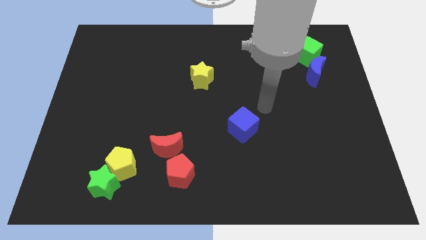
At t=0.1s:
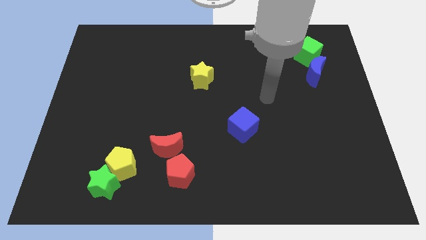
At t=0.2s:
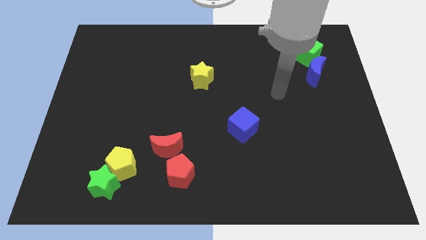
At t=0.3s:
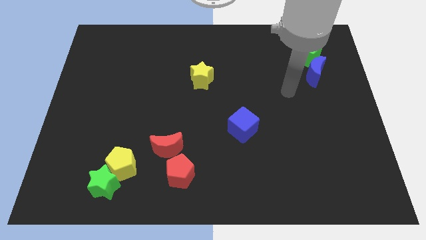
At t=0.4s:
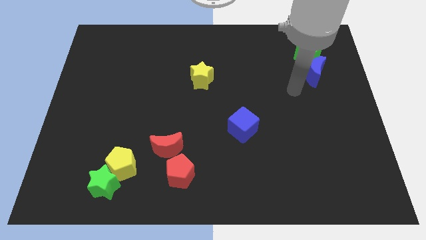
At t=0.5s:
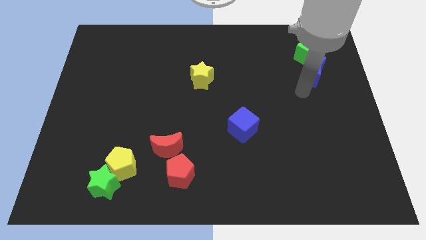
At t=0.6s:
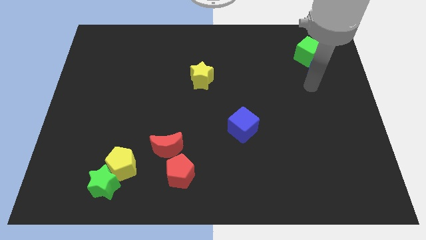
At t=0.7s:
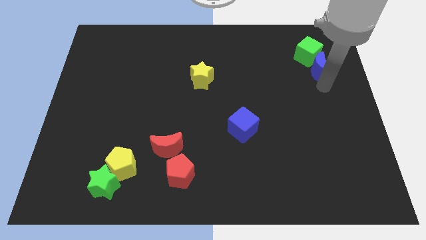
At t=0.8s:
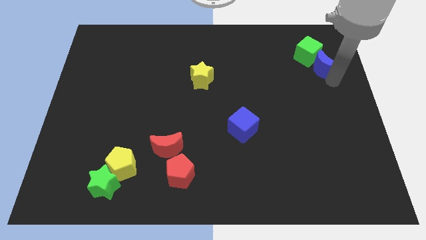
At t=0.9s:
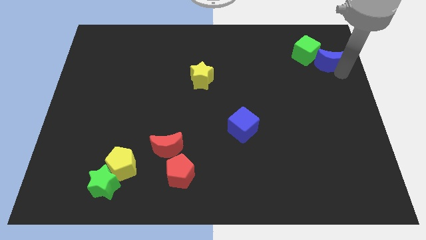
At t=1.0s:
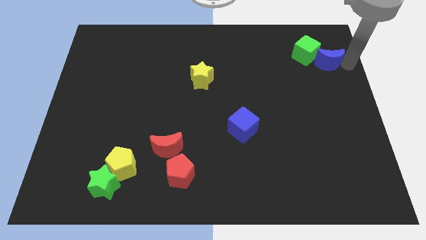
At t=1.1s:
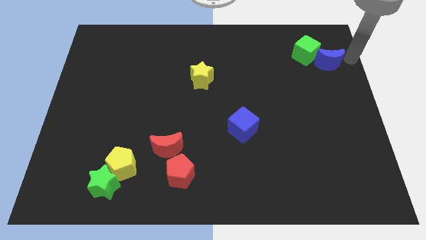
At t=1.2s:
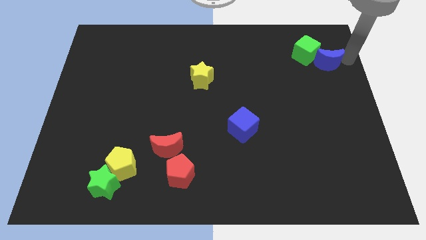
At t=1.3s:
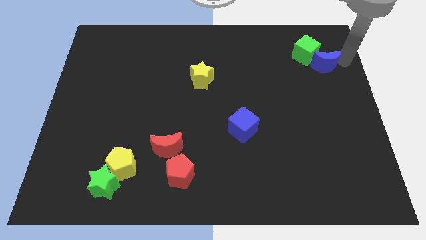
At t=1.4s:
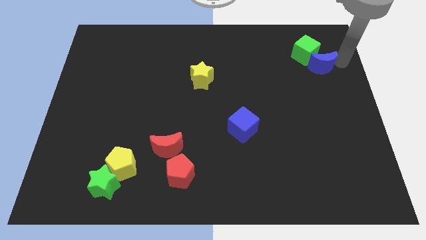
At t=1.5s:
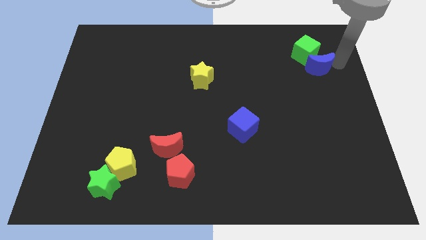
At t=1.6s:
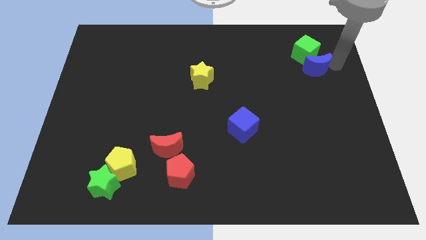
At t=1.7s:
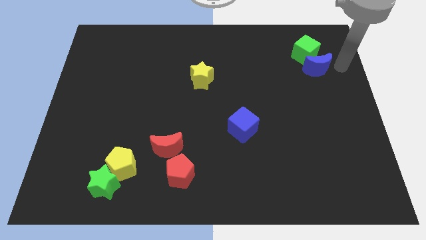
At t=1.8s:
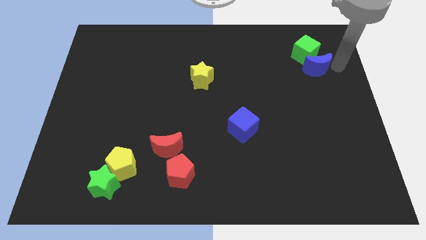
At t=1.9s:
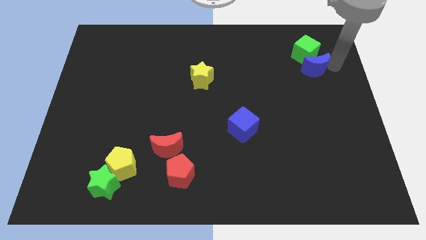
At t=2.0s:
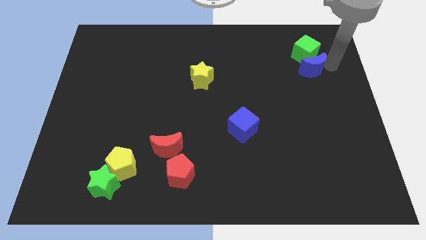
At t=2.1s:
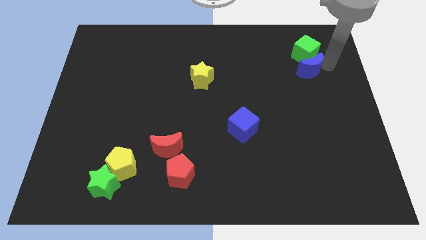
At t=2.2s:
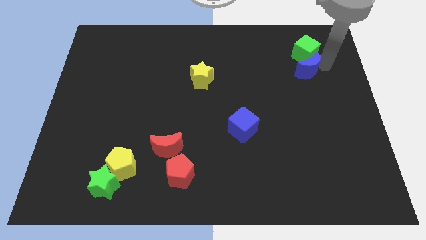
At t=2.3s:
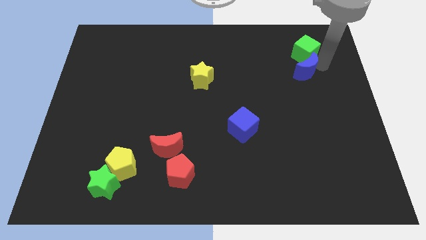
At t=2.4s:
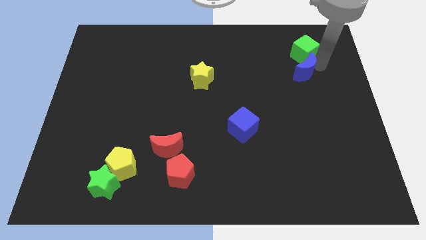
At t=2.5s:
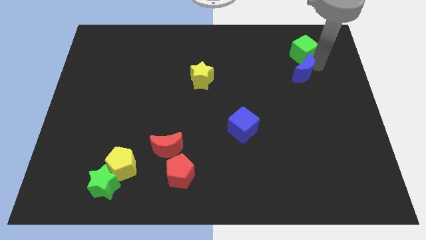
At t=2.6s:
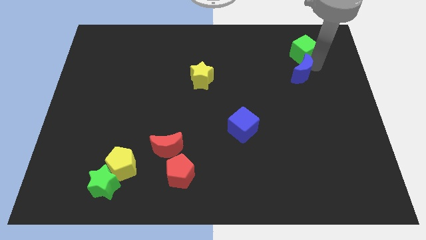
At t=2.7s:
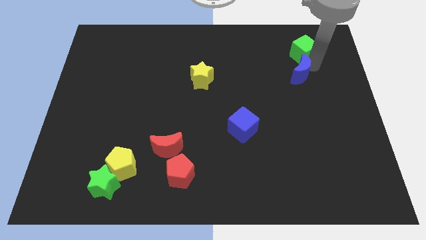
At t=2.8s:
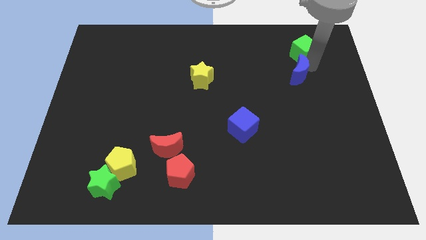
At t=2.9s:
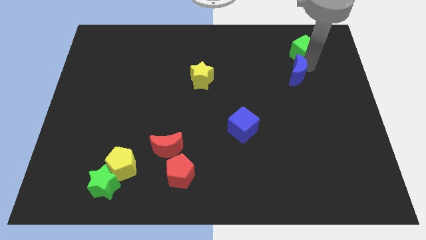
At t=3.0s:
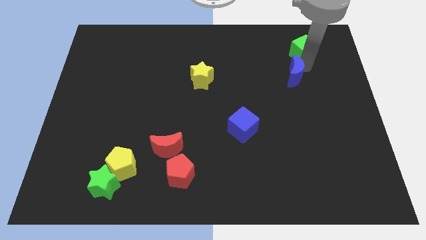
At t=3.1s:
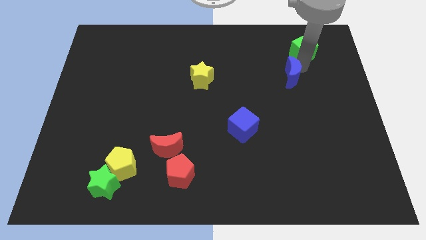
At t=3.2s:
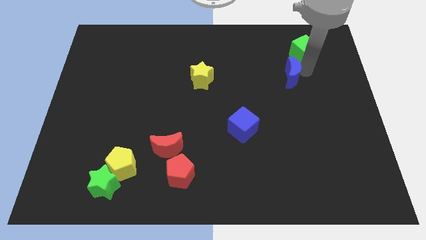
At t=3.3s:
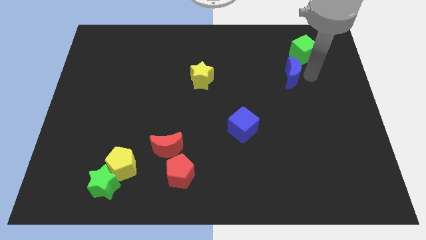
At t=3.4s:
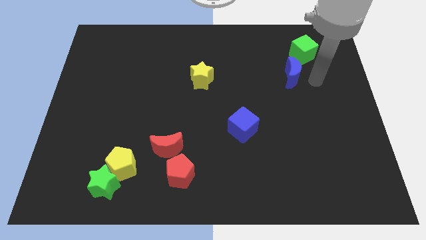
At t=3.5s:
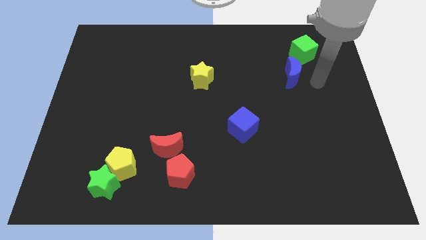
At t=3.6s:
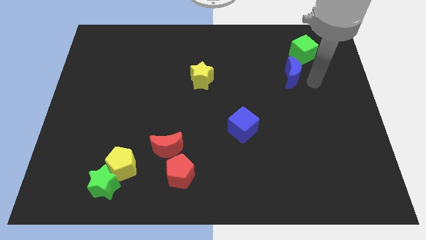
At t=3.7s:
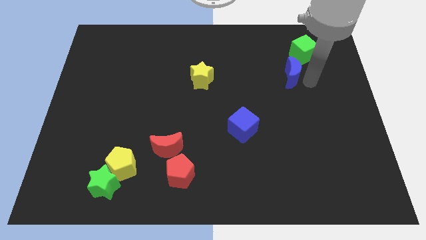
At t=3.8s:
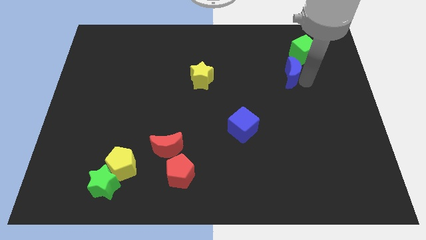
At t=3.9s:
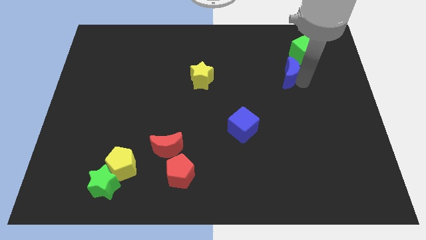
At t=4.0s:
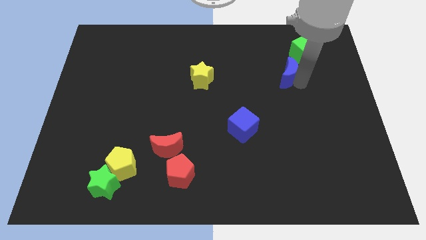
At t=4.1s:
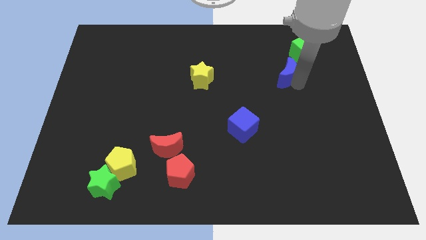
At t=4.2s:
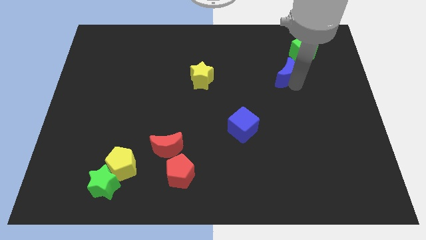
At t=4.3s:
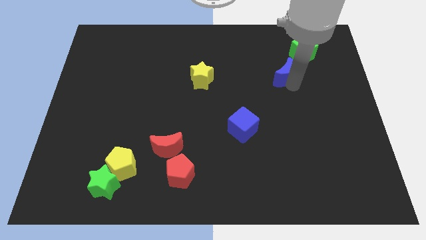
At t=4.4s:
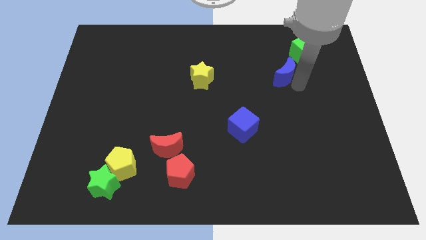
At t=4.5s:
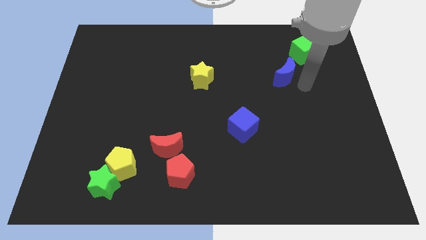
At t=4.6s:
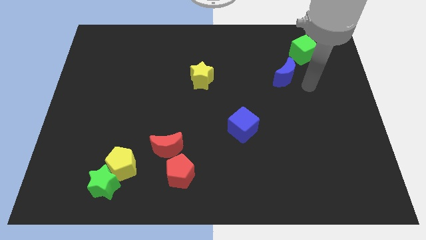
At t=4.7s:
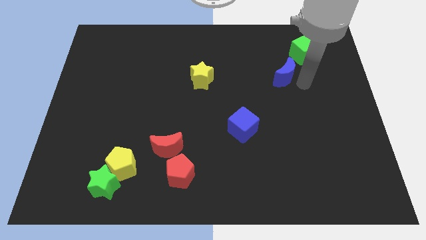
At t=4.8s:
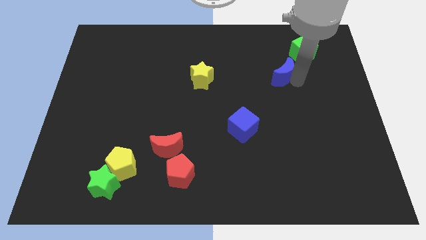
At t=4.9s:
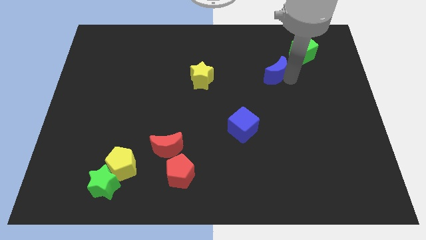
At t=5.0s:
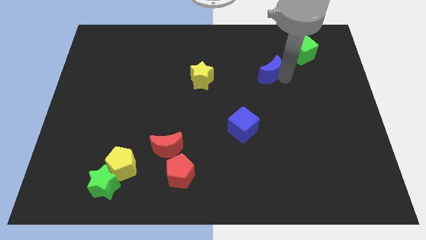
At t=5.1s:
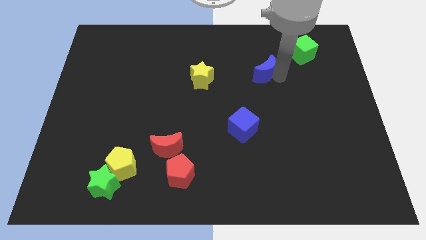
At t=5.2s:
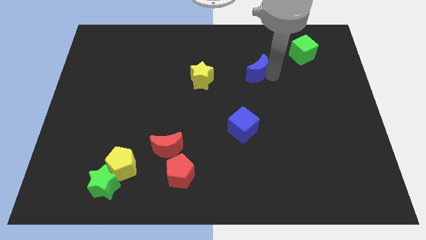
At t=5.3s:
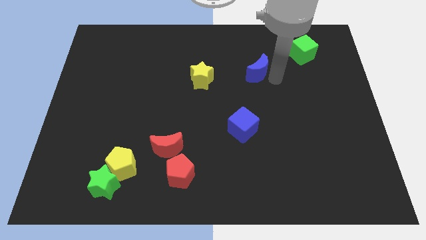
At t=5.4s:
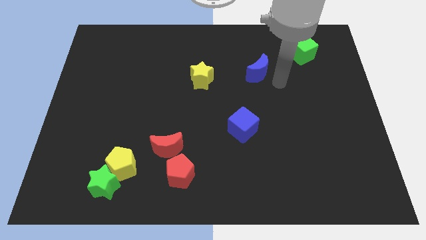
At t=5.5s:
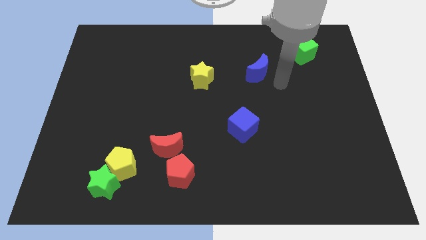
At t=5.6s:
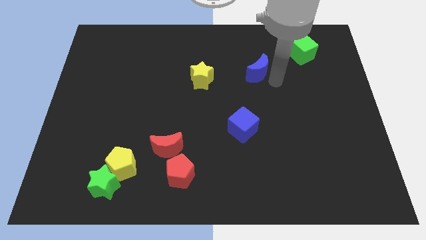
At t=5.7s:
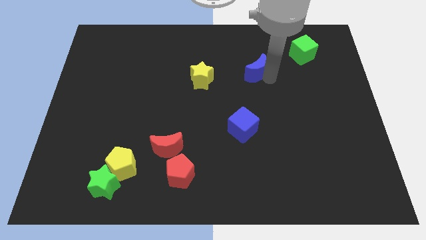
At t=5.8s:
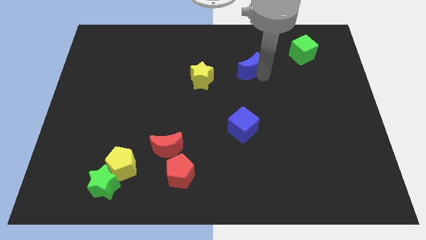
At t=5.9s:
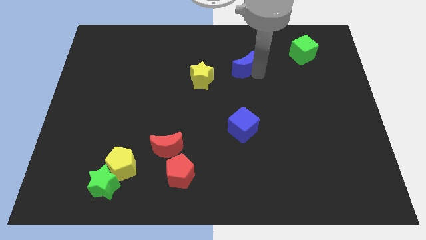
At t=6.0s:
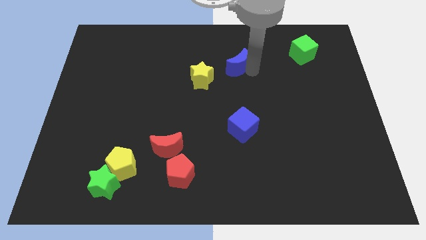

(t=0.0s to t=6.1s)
slide the blue moon diagonally up and to the right of the yellow star

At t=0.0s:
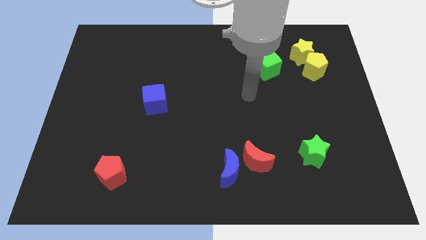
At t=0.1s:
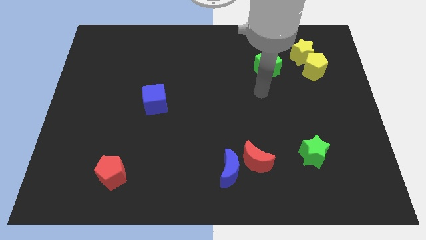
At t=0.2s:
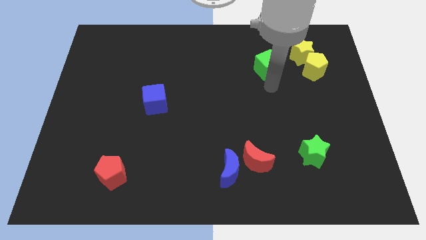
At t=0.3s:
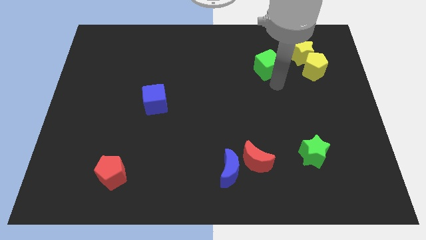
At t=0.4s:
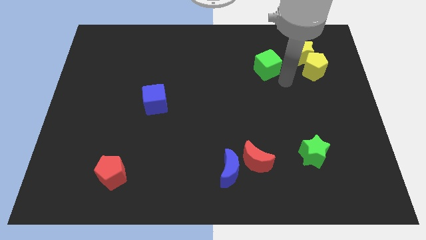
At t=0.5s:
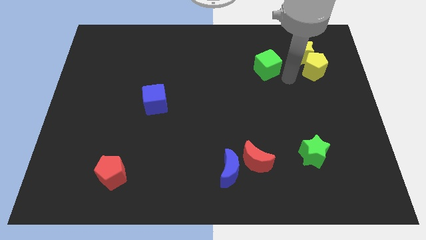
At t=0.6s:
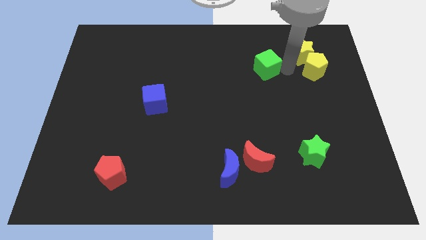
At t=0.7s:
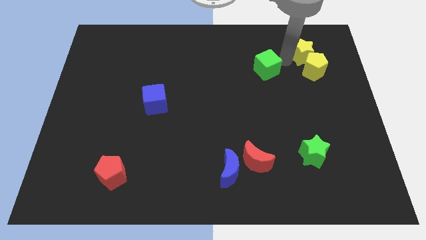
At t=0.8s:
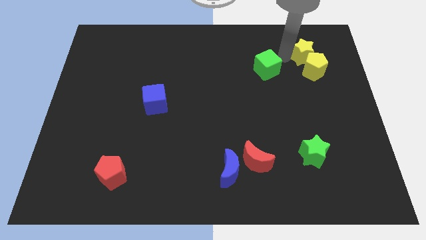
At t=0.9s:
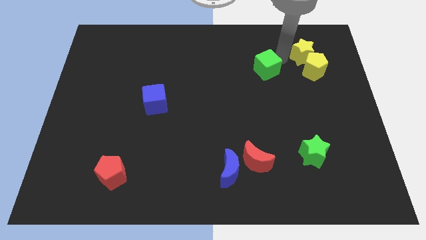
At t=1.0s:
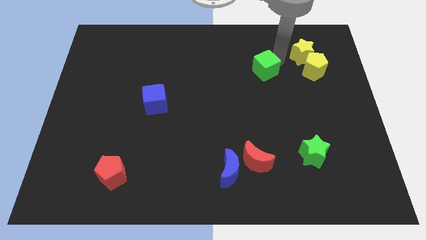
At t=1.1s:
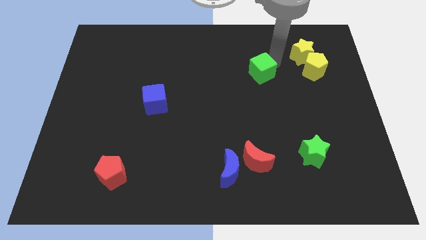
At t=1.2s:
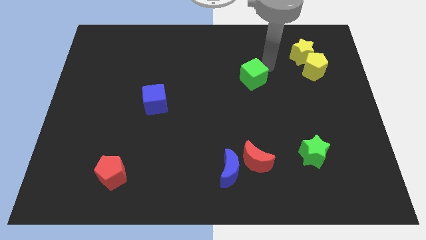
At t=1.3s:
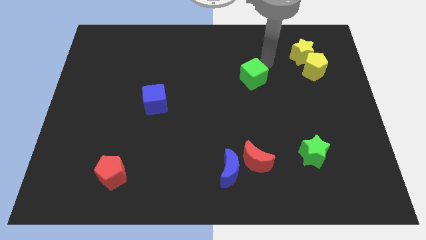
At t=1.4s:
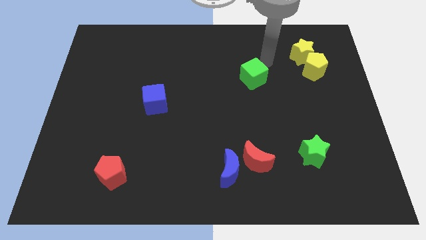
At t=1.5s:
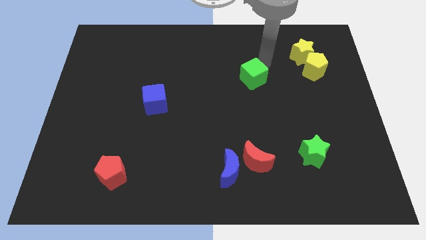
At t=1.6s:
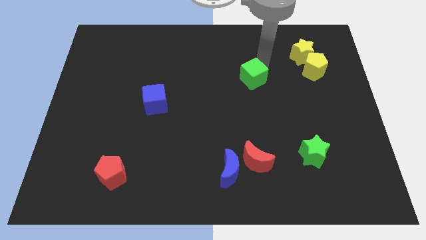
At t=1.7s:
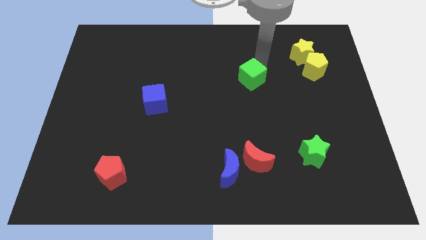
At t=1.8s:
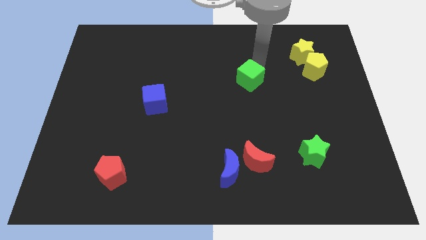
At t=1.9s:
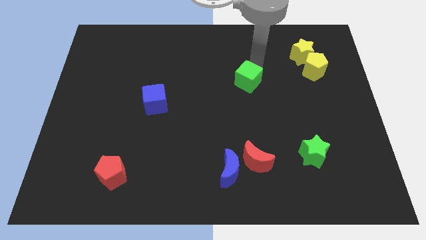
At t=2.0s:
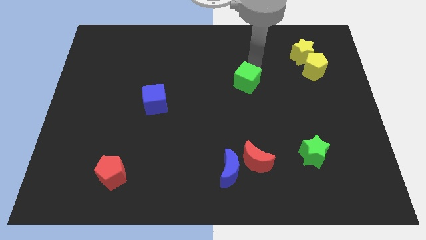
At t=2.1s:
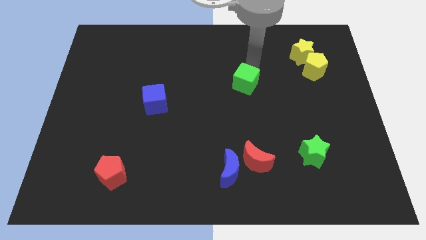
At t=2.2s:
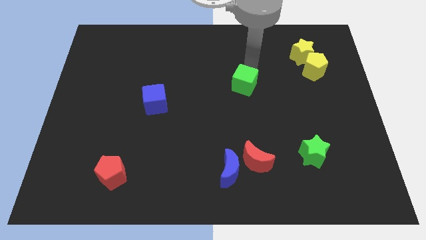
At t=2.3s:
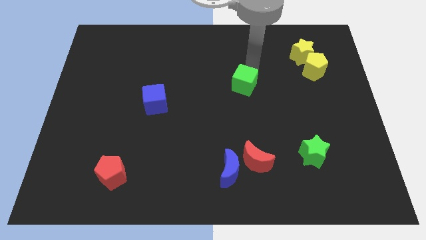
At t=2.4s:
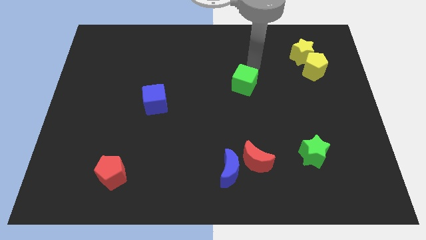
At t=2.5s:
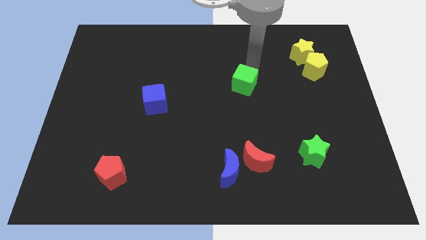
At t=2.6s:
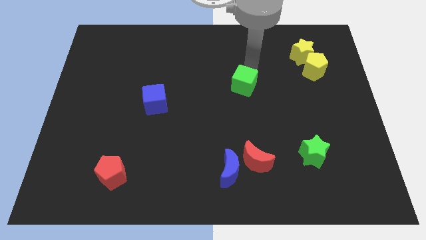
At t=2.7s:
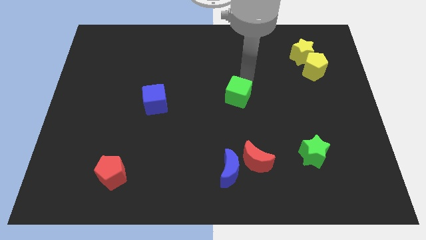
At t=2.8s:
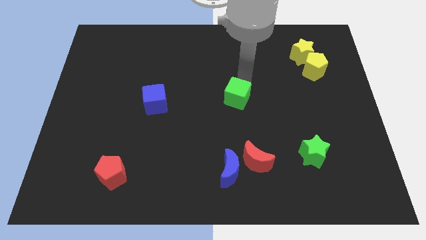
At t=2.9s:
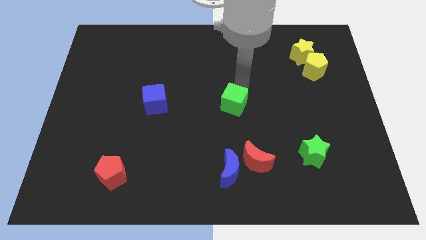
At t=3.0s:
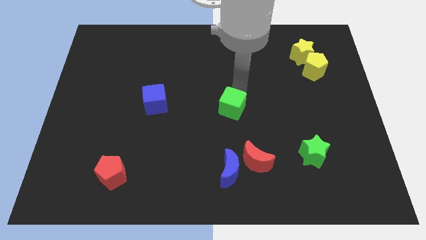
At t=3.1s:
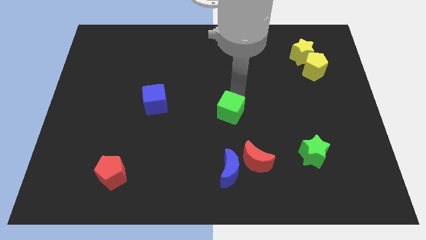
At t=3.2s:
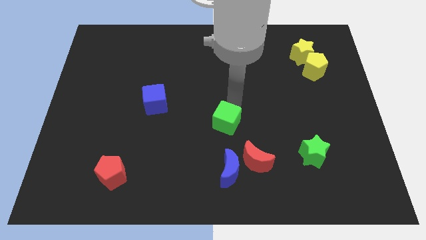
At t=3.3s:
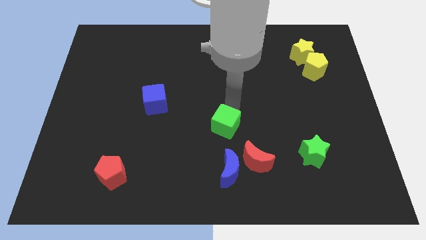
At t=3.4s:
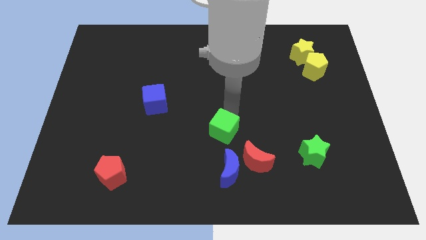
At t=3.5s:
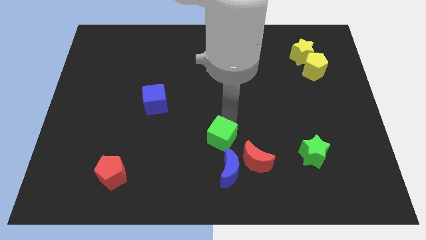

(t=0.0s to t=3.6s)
push the green cube to the top left side of the blue moon
